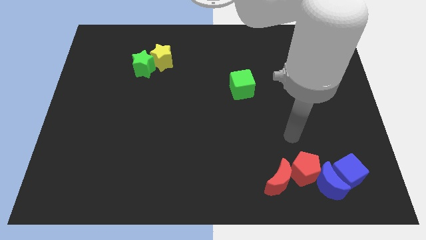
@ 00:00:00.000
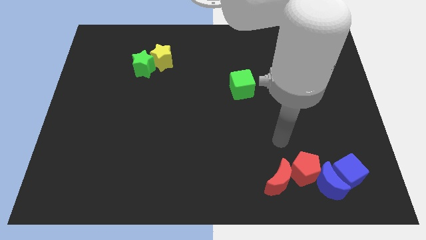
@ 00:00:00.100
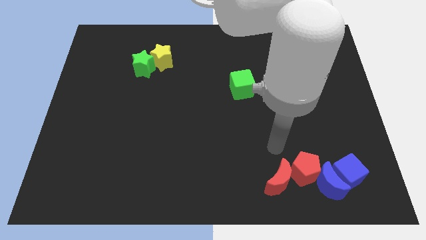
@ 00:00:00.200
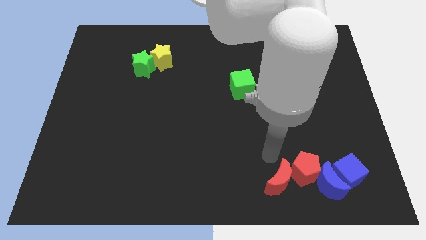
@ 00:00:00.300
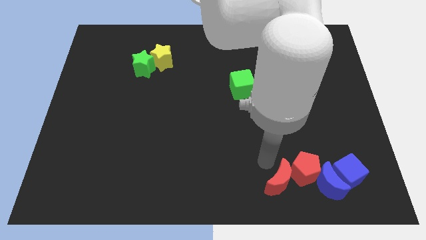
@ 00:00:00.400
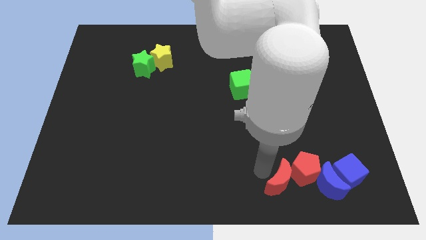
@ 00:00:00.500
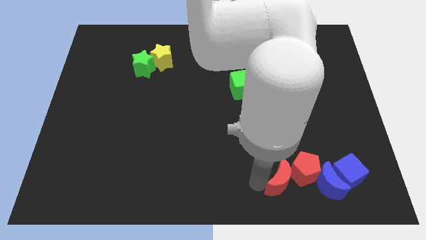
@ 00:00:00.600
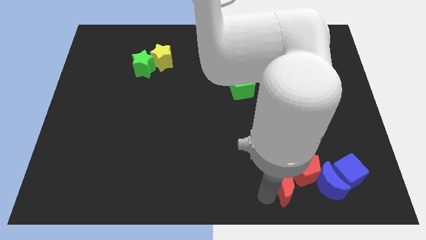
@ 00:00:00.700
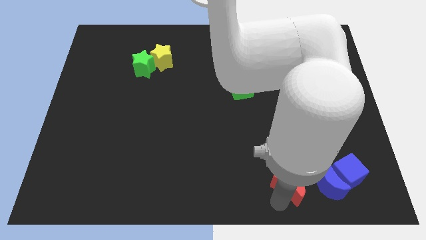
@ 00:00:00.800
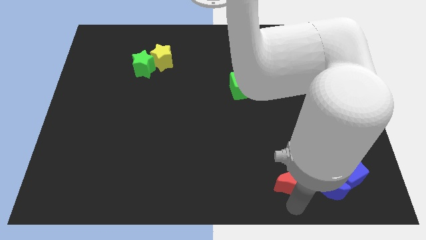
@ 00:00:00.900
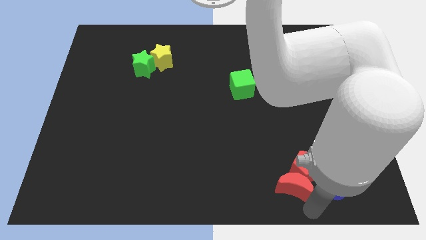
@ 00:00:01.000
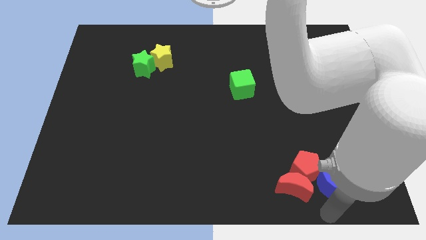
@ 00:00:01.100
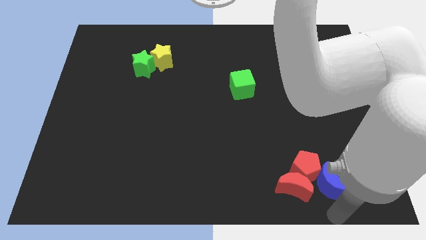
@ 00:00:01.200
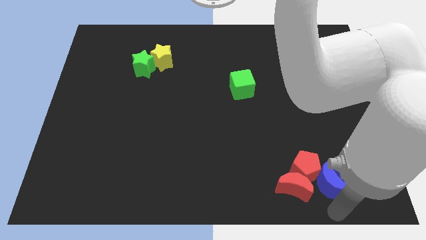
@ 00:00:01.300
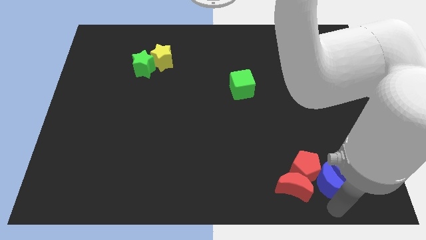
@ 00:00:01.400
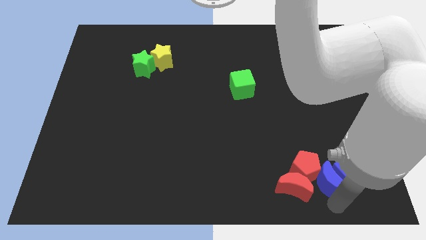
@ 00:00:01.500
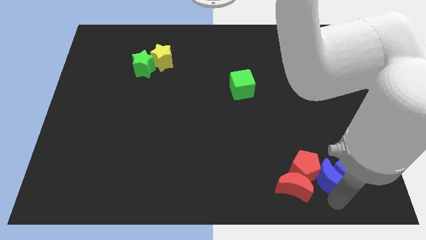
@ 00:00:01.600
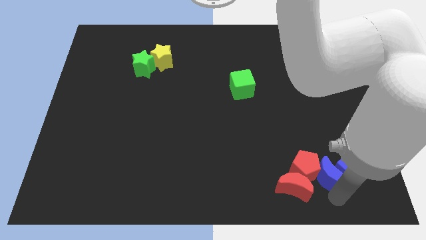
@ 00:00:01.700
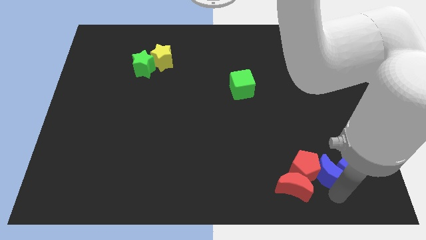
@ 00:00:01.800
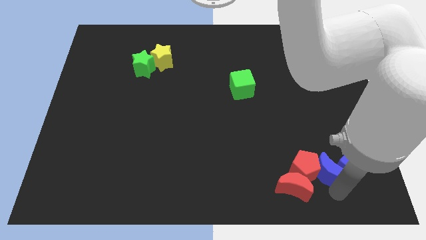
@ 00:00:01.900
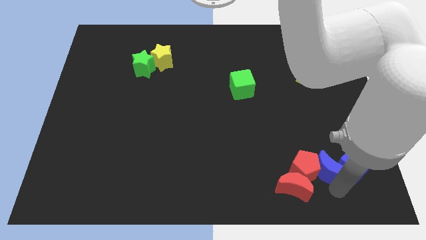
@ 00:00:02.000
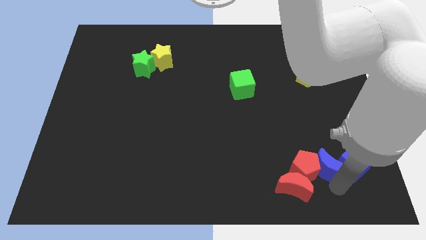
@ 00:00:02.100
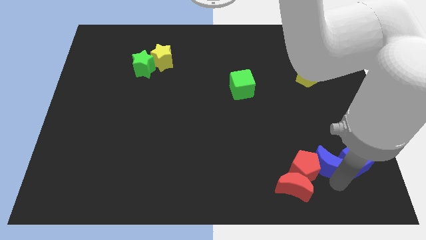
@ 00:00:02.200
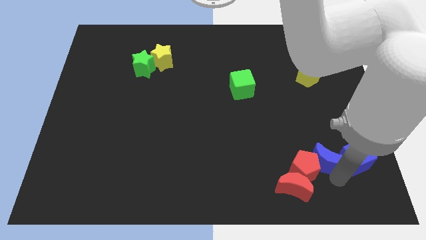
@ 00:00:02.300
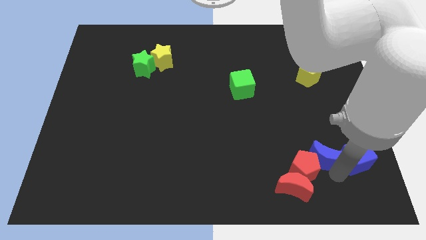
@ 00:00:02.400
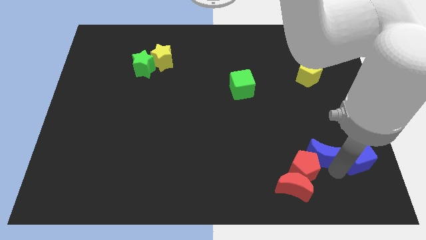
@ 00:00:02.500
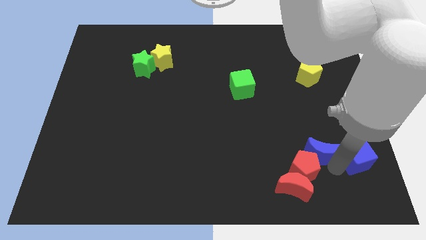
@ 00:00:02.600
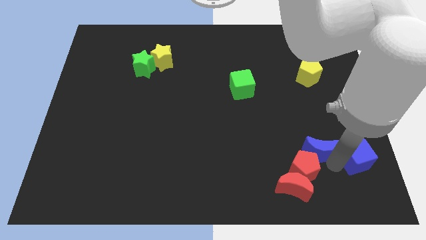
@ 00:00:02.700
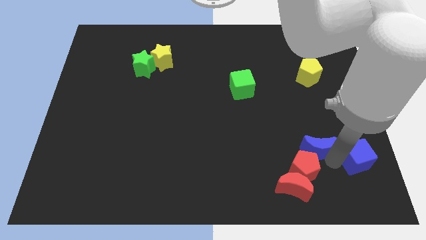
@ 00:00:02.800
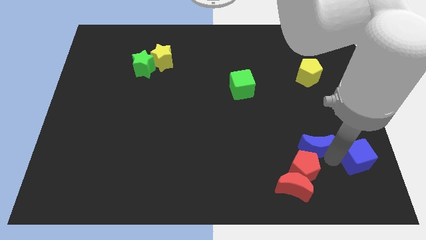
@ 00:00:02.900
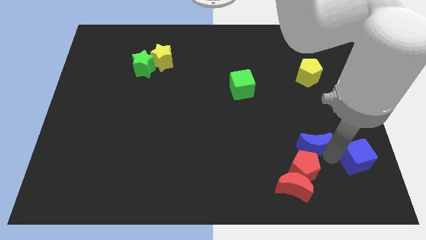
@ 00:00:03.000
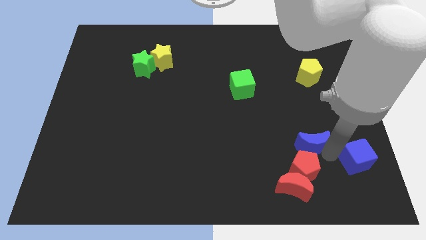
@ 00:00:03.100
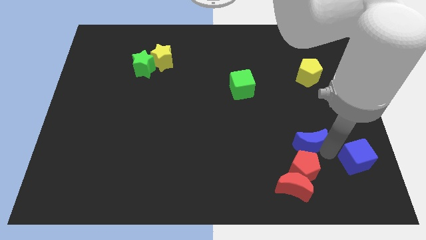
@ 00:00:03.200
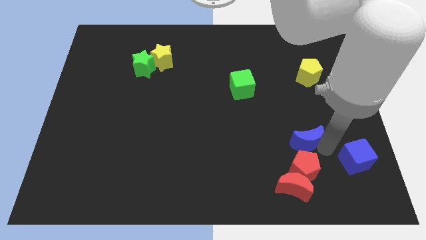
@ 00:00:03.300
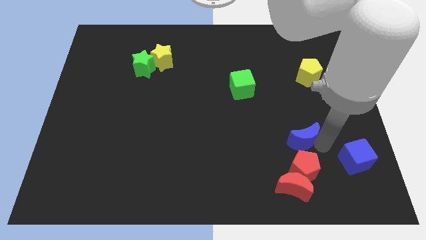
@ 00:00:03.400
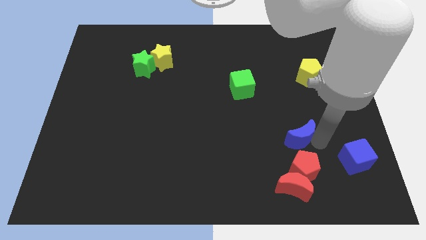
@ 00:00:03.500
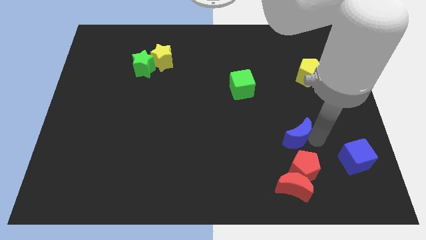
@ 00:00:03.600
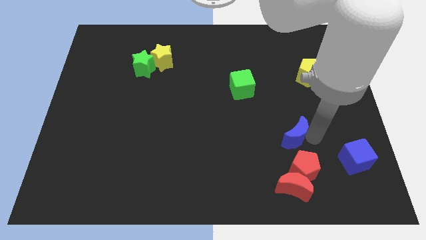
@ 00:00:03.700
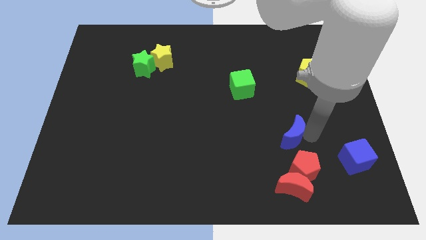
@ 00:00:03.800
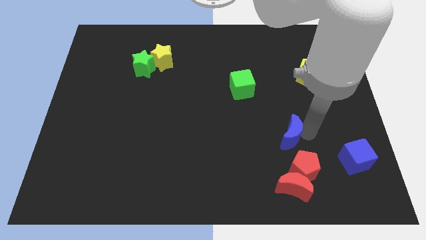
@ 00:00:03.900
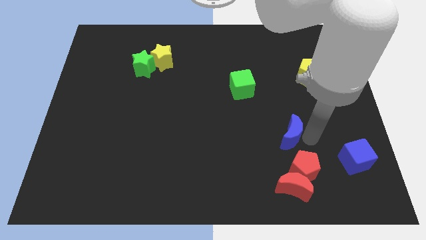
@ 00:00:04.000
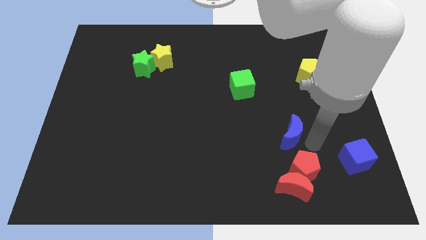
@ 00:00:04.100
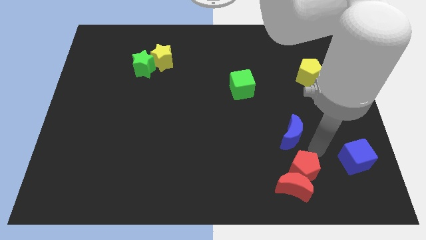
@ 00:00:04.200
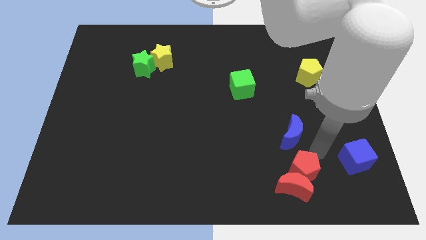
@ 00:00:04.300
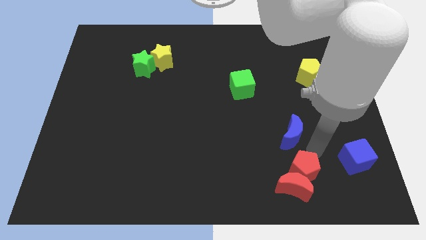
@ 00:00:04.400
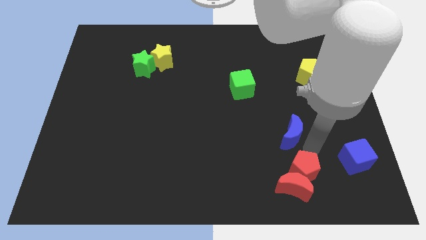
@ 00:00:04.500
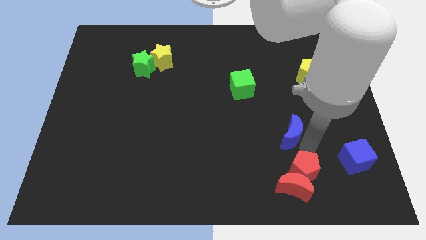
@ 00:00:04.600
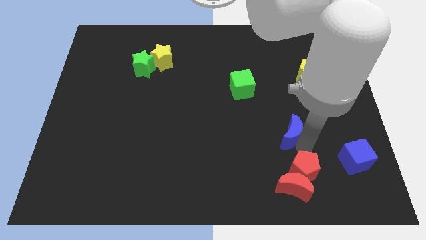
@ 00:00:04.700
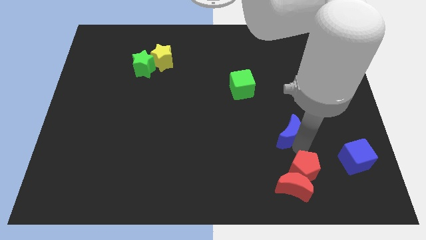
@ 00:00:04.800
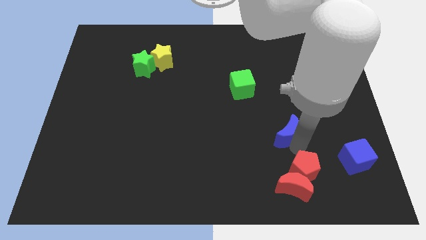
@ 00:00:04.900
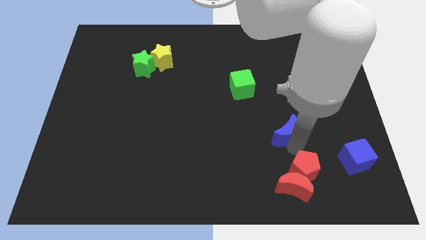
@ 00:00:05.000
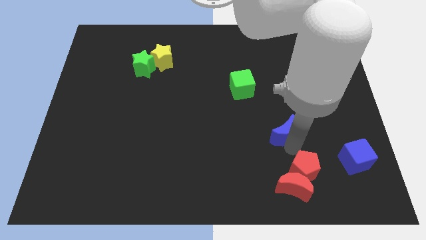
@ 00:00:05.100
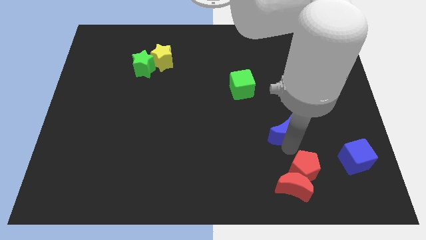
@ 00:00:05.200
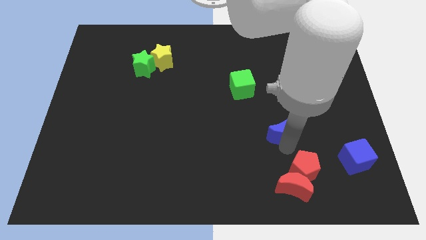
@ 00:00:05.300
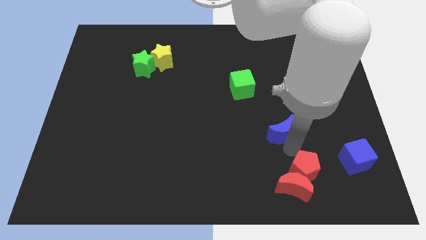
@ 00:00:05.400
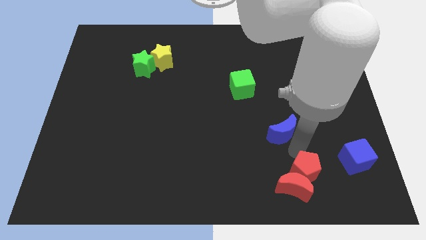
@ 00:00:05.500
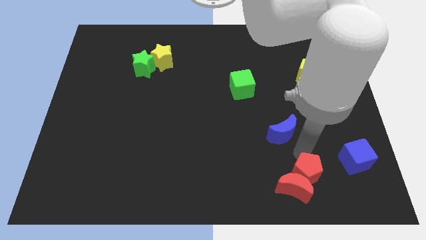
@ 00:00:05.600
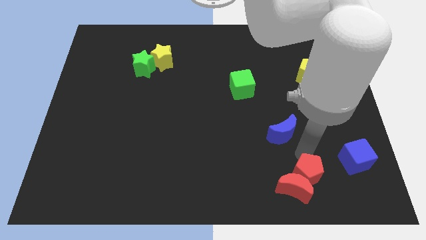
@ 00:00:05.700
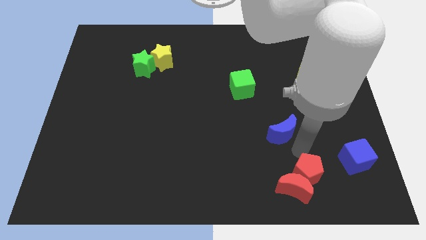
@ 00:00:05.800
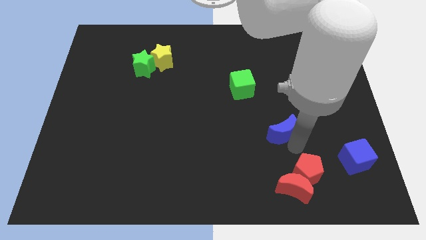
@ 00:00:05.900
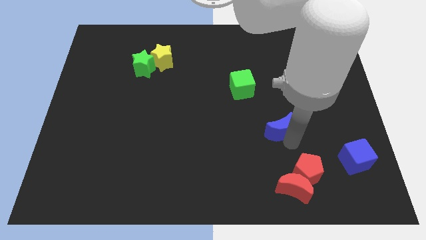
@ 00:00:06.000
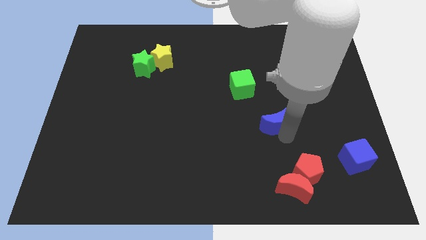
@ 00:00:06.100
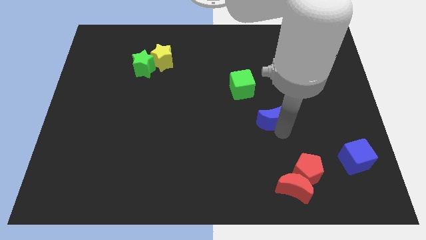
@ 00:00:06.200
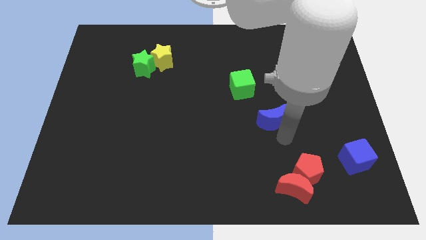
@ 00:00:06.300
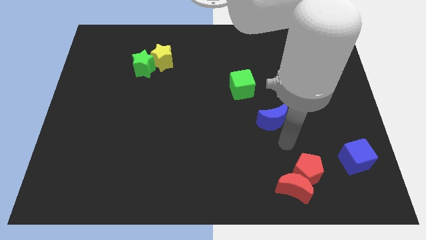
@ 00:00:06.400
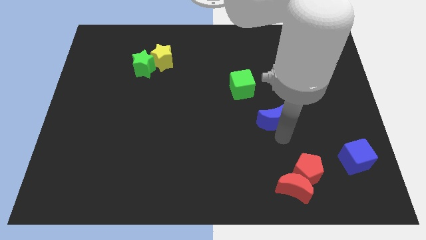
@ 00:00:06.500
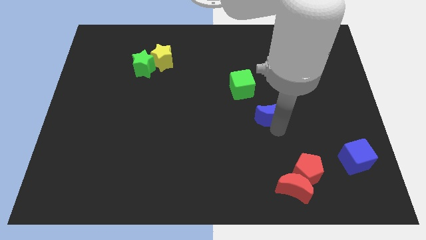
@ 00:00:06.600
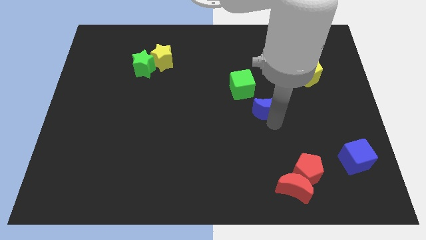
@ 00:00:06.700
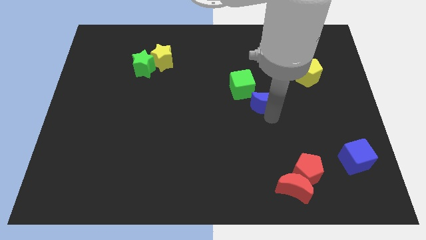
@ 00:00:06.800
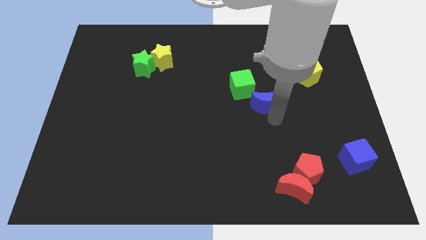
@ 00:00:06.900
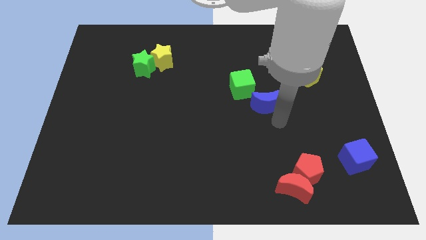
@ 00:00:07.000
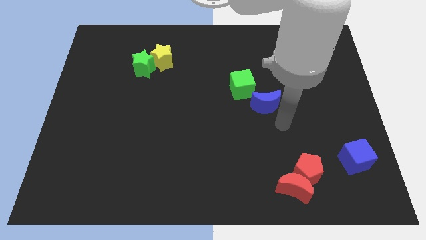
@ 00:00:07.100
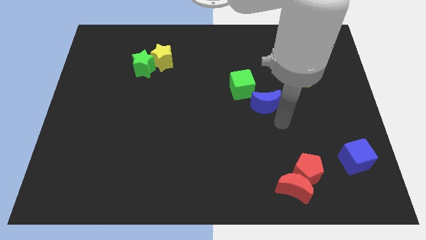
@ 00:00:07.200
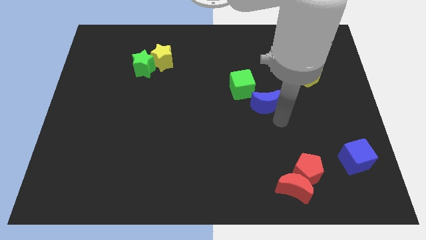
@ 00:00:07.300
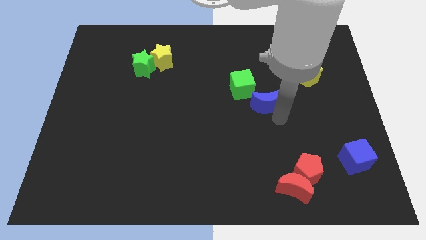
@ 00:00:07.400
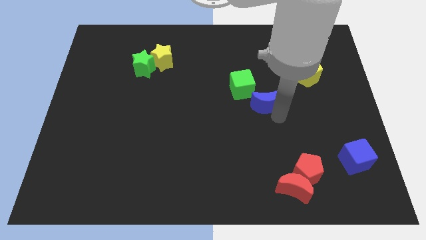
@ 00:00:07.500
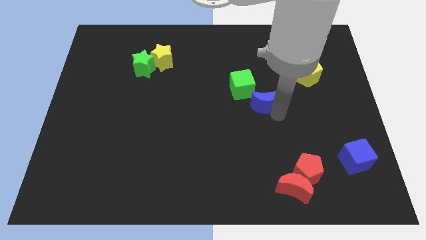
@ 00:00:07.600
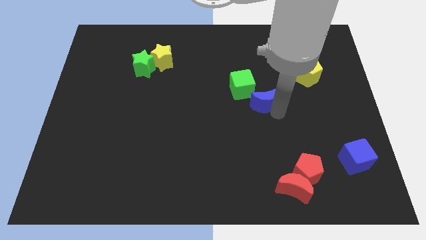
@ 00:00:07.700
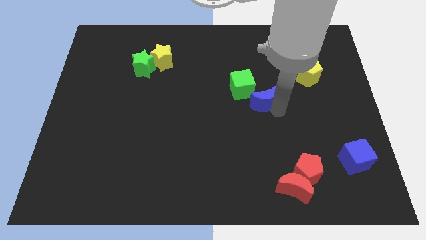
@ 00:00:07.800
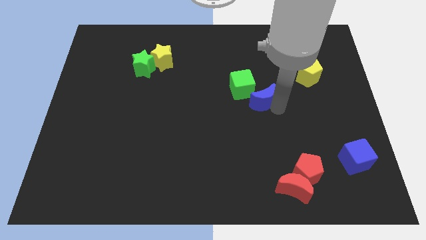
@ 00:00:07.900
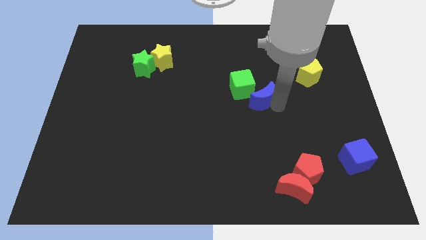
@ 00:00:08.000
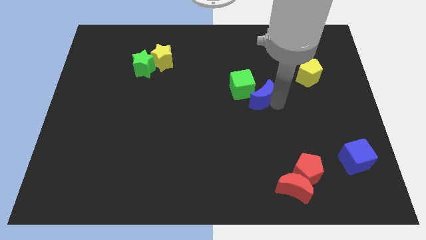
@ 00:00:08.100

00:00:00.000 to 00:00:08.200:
move the blue moon next to the green cube
